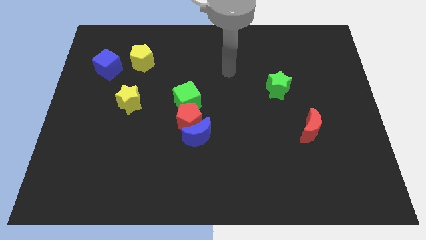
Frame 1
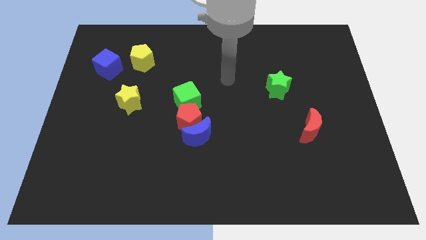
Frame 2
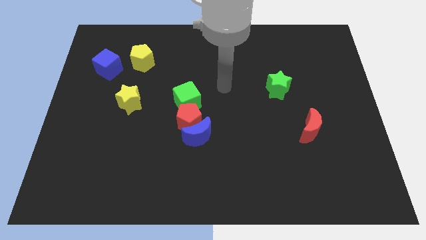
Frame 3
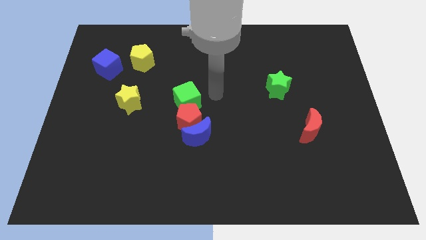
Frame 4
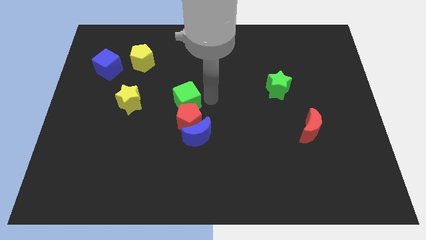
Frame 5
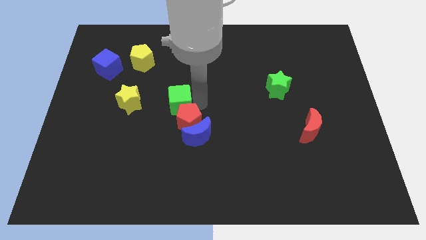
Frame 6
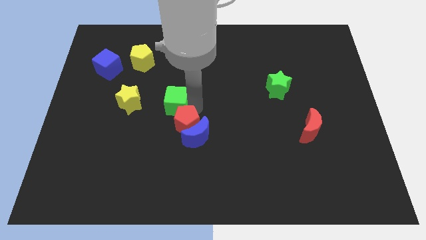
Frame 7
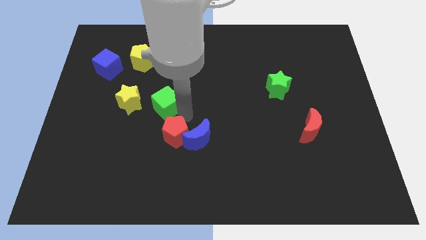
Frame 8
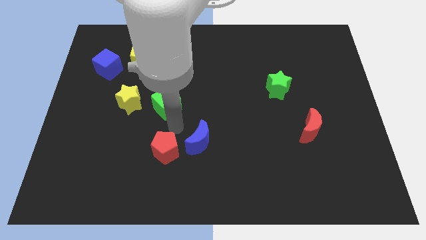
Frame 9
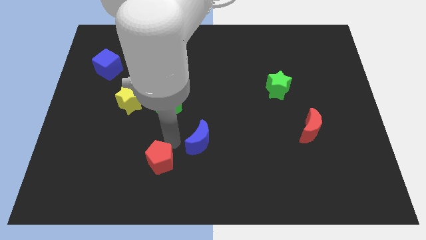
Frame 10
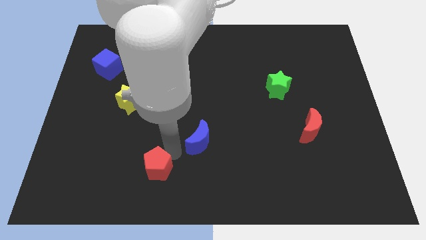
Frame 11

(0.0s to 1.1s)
pull the blue moon apart from the red pentagon

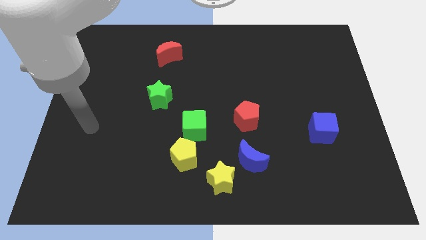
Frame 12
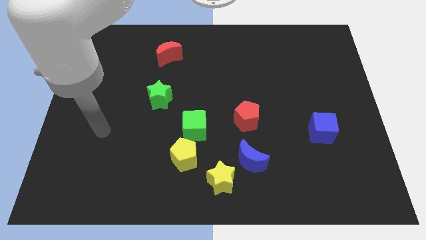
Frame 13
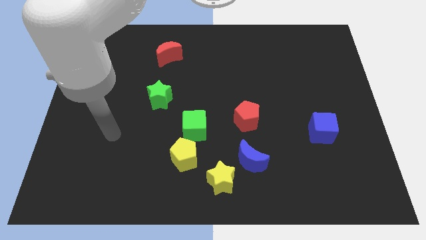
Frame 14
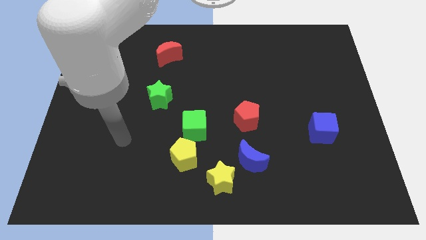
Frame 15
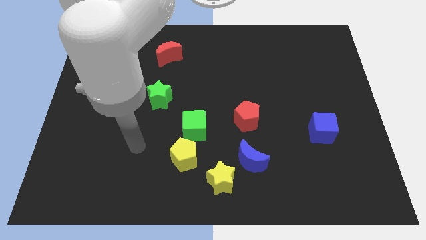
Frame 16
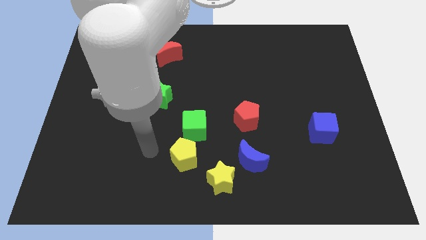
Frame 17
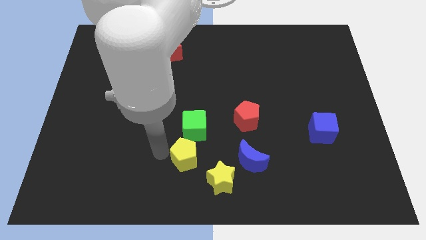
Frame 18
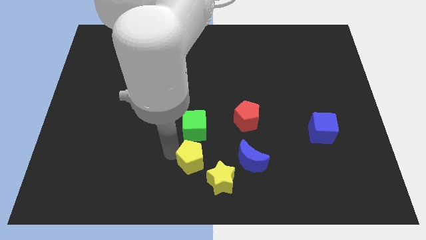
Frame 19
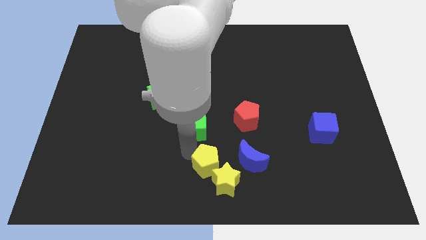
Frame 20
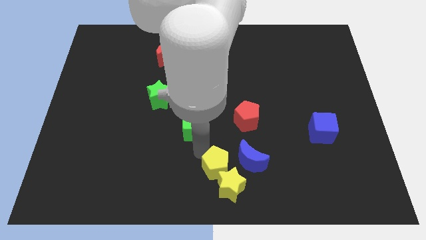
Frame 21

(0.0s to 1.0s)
separate the green cube from the yellow pentagon

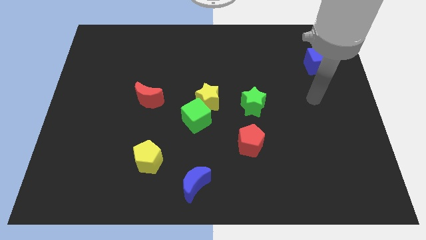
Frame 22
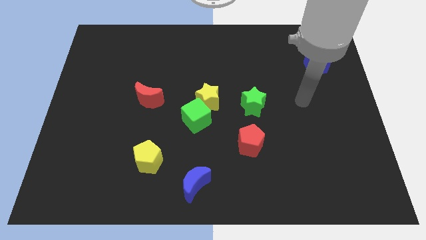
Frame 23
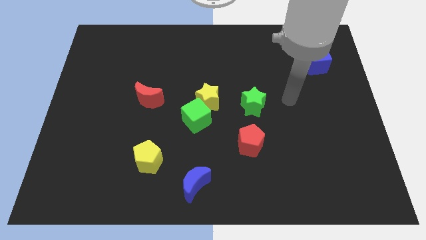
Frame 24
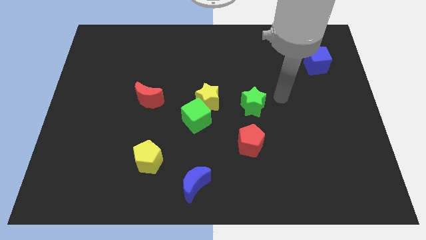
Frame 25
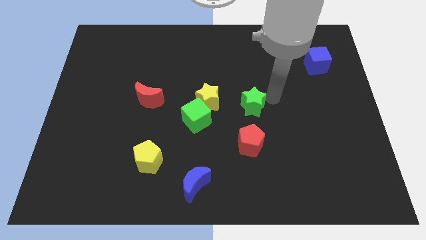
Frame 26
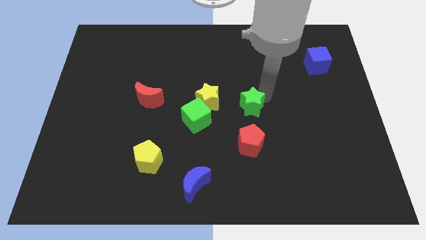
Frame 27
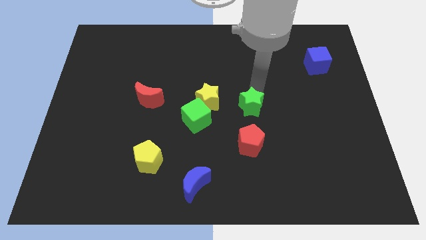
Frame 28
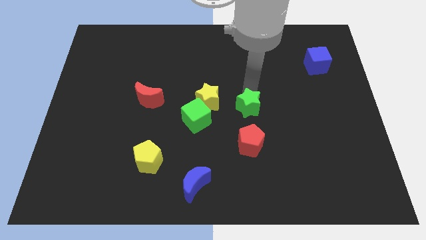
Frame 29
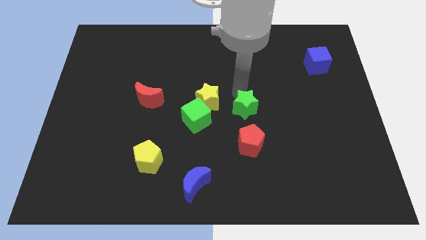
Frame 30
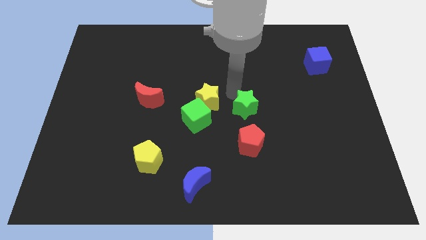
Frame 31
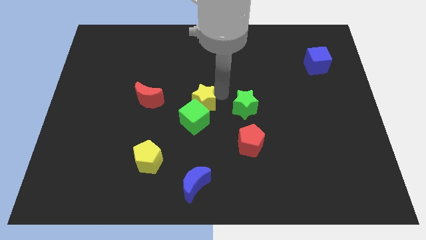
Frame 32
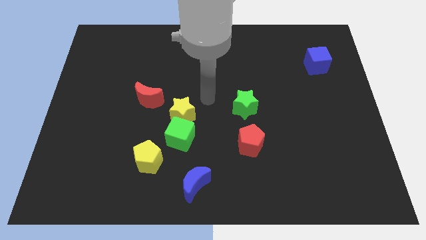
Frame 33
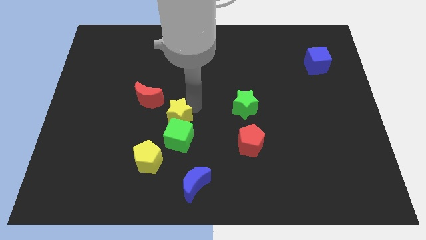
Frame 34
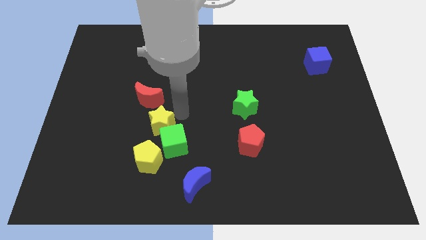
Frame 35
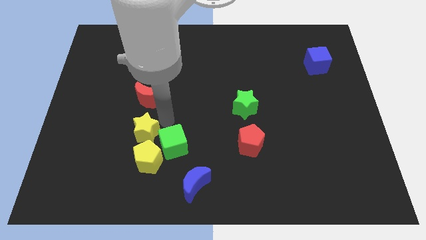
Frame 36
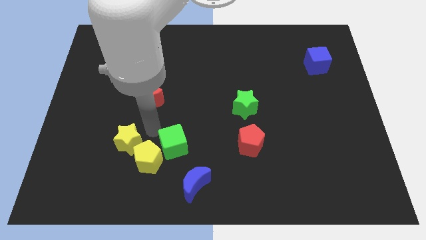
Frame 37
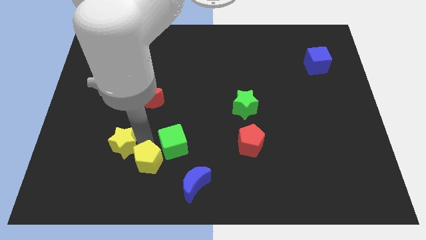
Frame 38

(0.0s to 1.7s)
pull the green cube apart from the yellow star

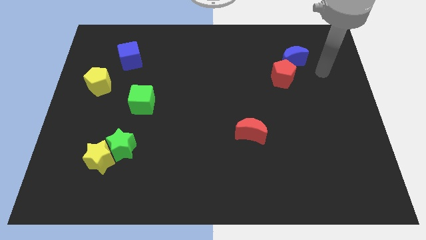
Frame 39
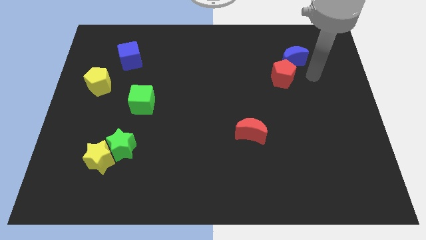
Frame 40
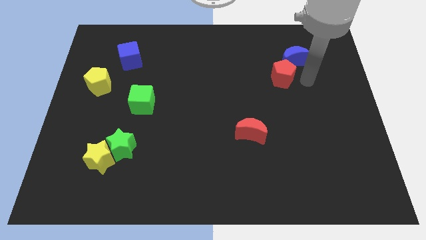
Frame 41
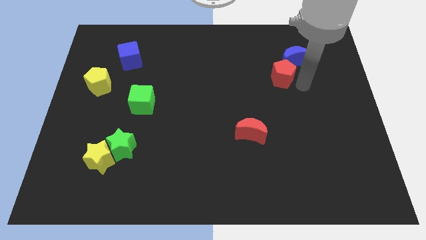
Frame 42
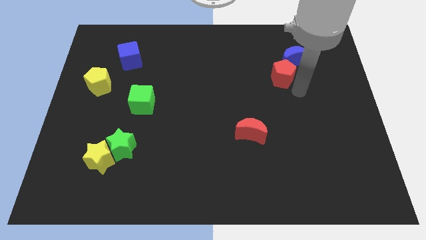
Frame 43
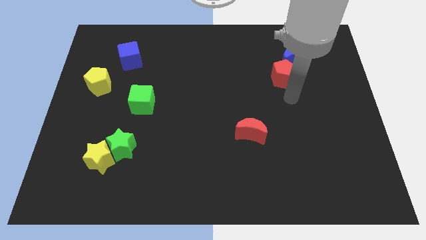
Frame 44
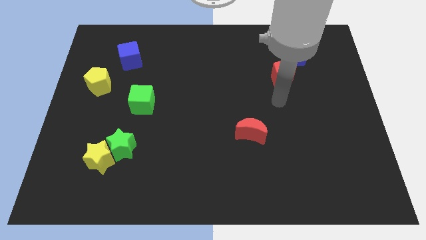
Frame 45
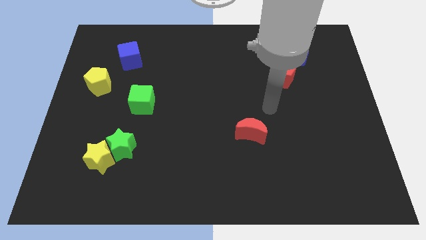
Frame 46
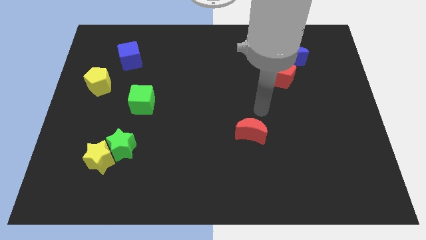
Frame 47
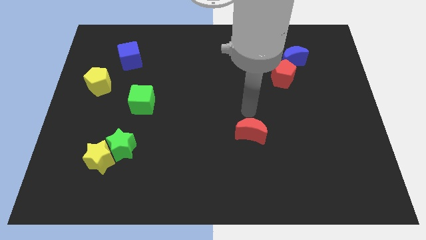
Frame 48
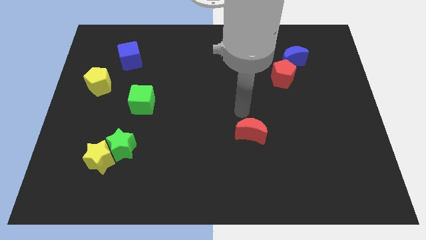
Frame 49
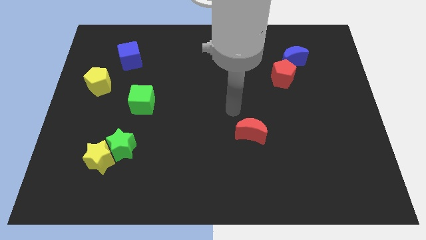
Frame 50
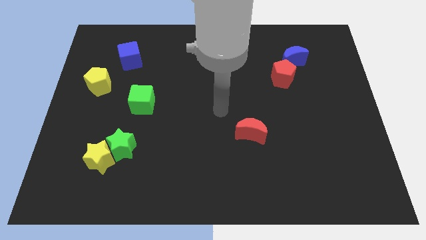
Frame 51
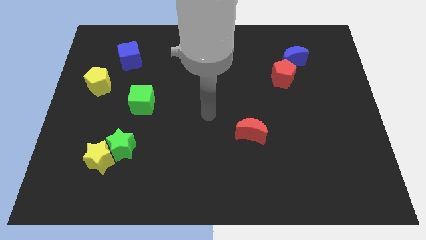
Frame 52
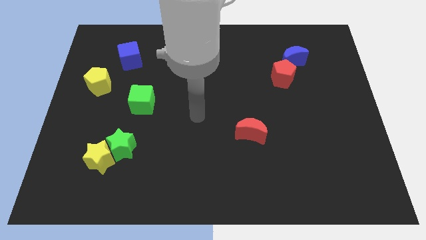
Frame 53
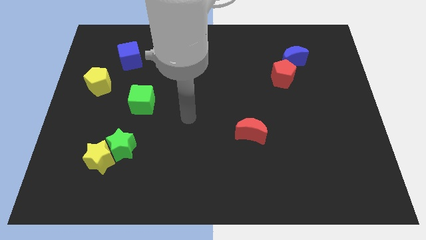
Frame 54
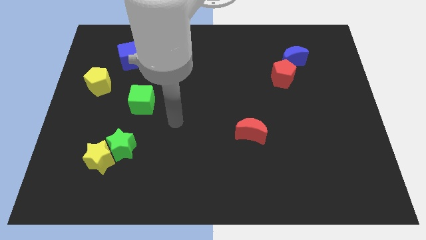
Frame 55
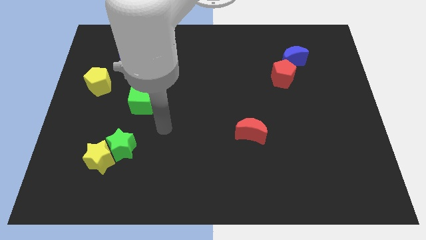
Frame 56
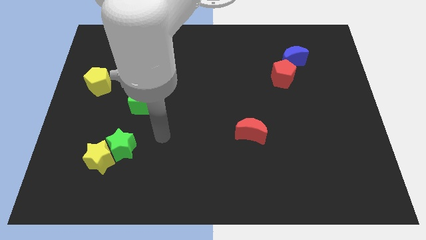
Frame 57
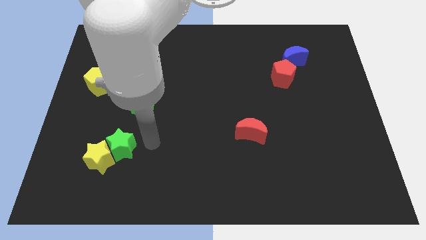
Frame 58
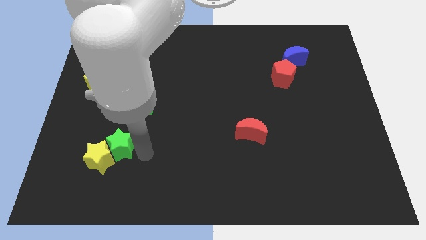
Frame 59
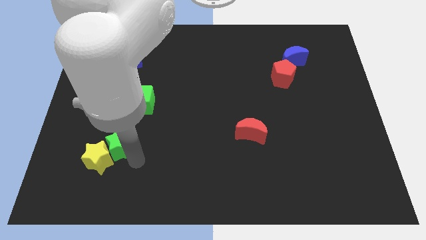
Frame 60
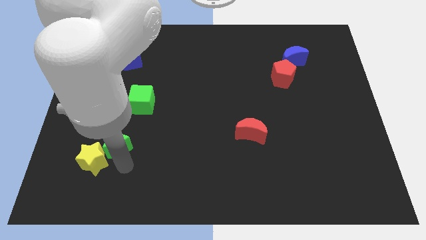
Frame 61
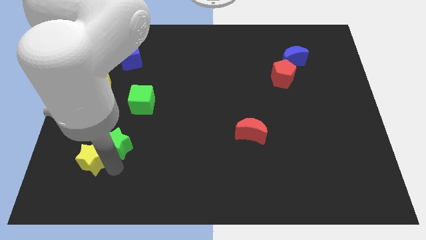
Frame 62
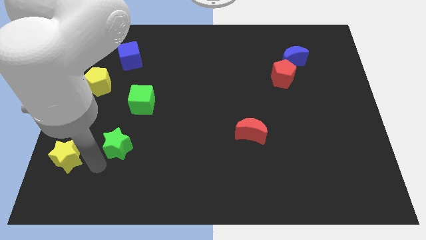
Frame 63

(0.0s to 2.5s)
pull the green star apart from the yellow star

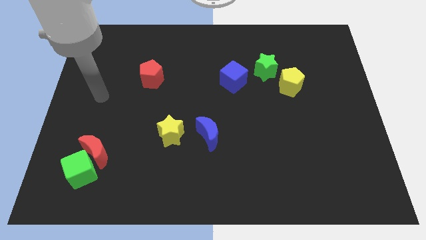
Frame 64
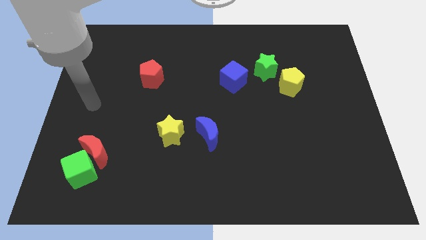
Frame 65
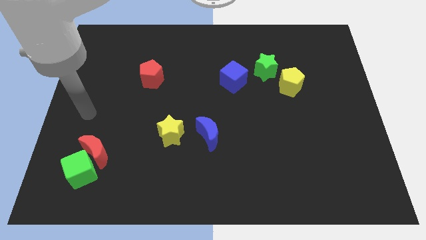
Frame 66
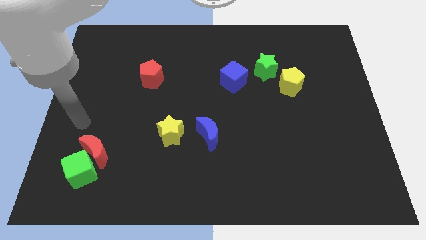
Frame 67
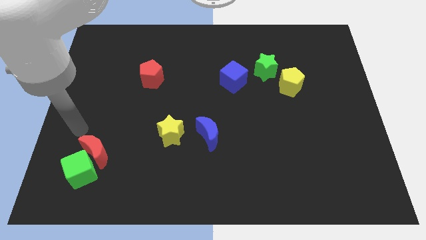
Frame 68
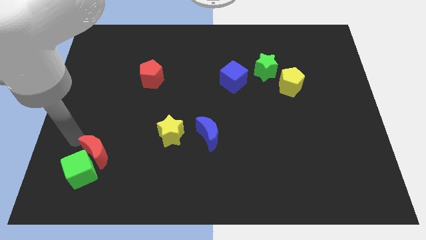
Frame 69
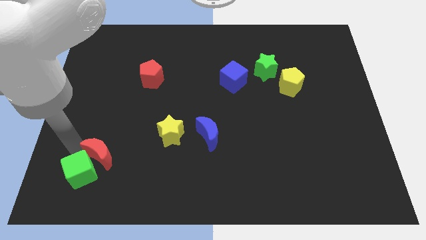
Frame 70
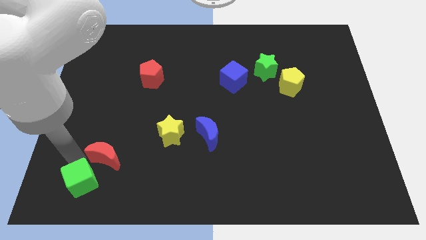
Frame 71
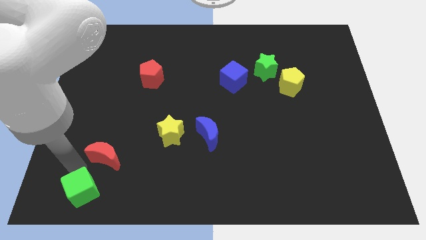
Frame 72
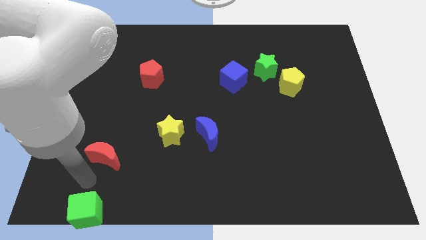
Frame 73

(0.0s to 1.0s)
move the red moon away from the green cube

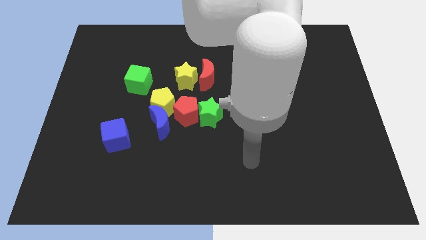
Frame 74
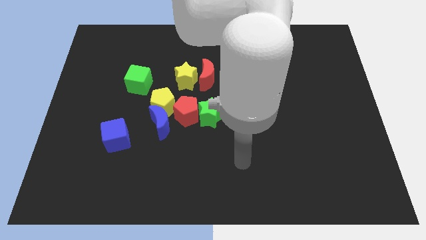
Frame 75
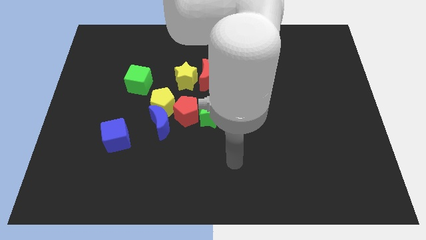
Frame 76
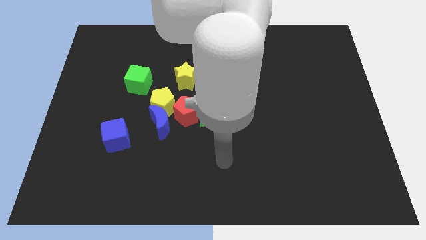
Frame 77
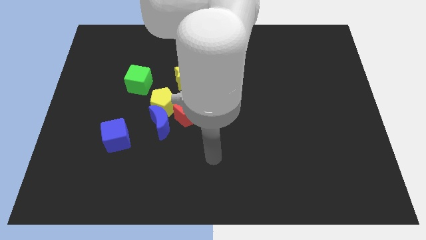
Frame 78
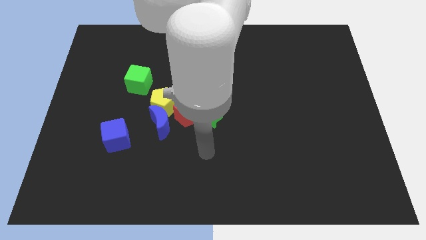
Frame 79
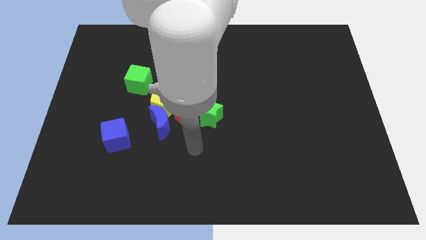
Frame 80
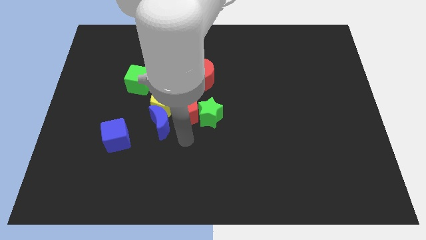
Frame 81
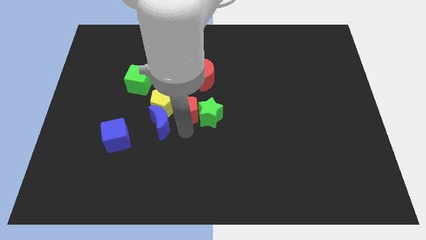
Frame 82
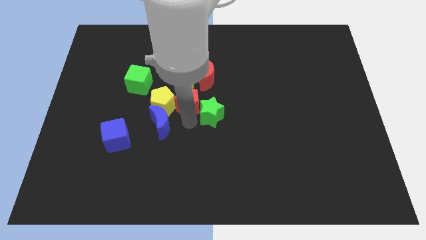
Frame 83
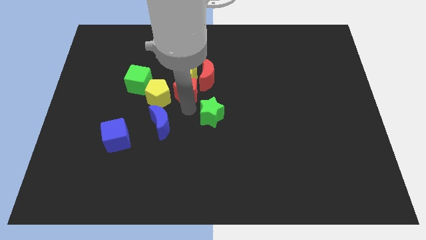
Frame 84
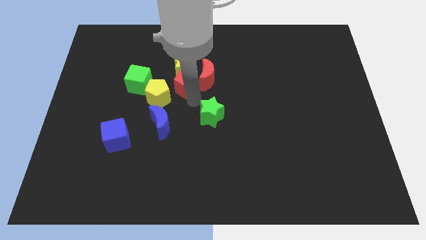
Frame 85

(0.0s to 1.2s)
pull the green star apart from the red pentagon

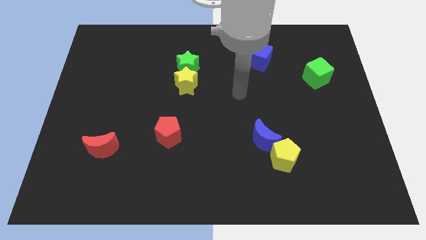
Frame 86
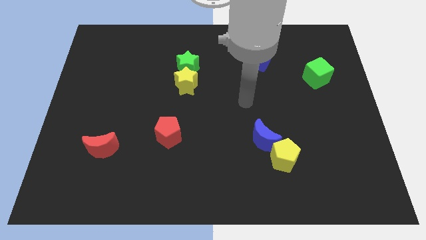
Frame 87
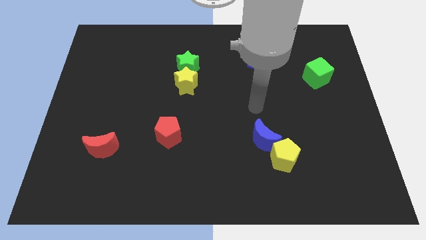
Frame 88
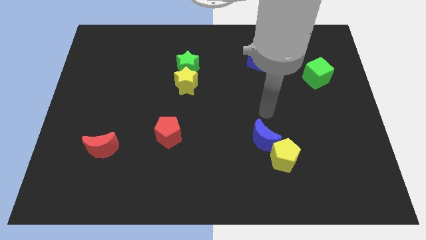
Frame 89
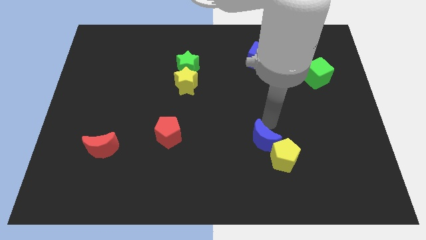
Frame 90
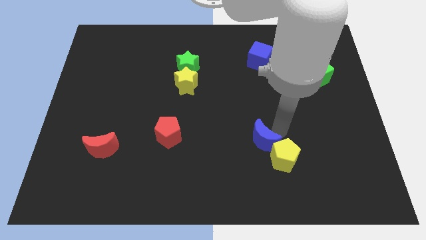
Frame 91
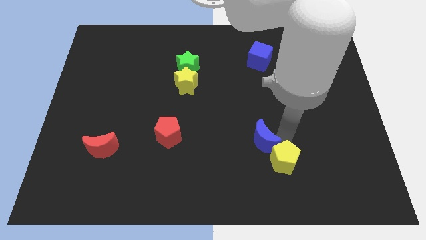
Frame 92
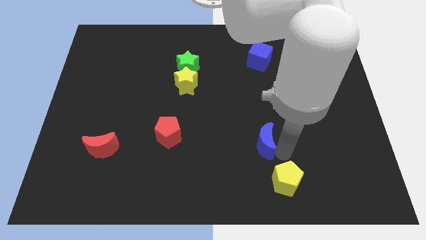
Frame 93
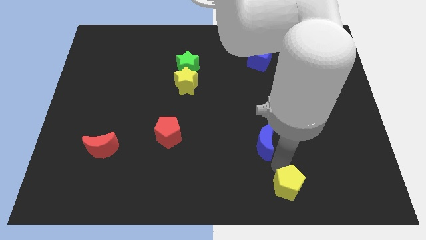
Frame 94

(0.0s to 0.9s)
separate the blue moon from the yellow pentagon
